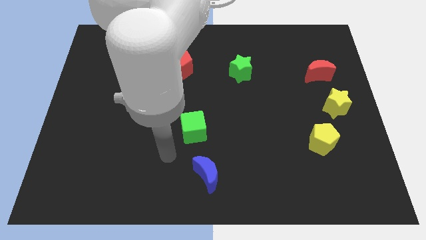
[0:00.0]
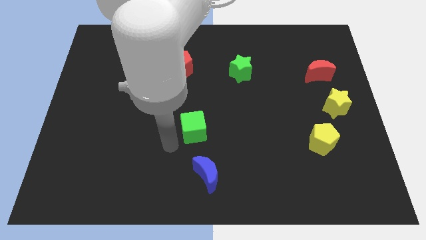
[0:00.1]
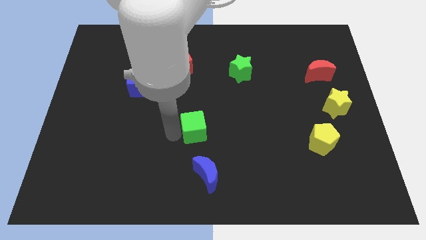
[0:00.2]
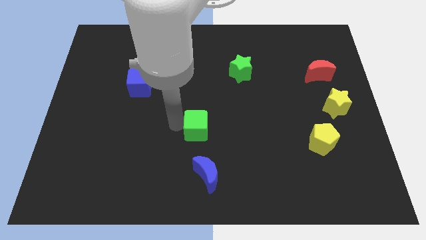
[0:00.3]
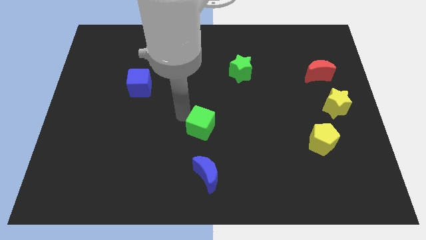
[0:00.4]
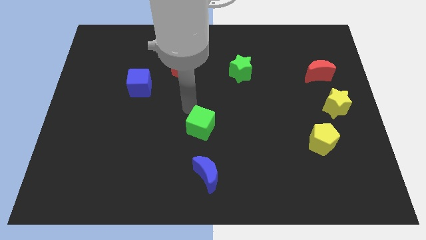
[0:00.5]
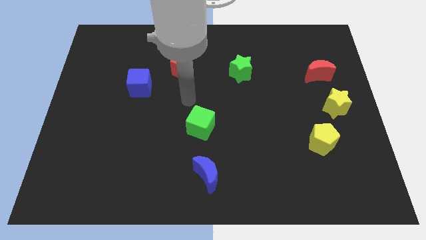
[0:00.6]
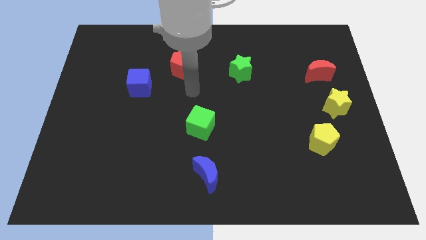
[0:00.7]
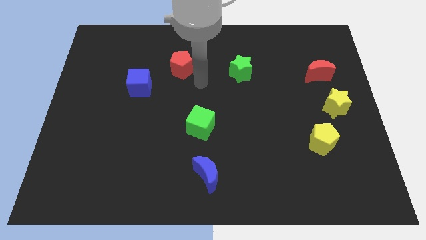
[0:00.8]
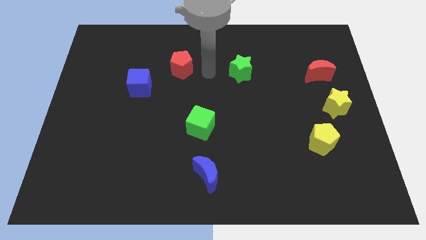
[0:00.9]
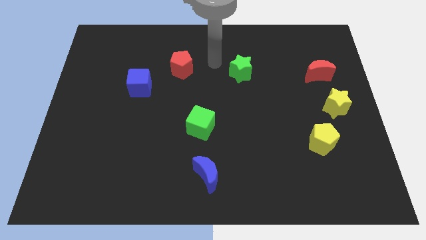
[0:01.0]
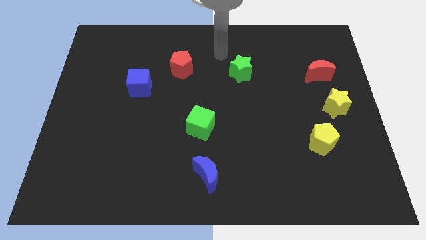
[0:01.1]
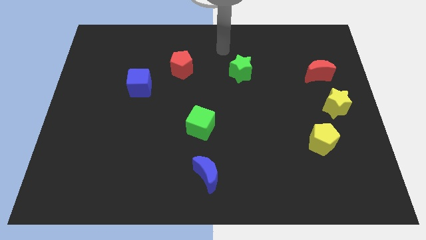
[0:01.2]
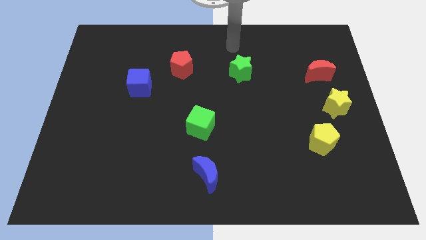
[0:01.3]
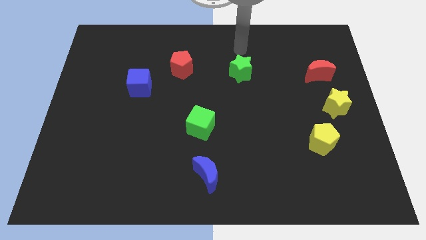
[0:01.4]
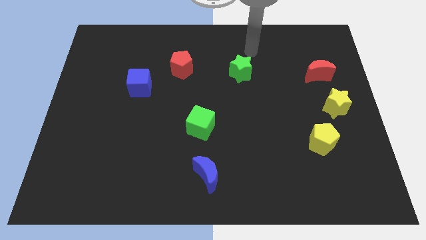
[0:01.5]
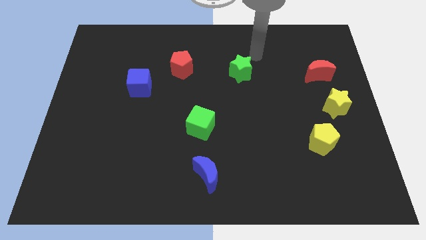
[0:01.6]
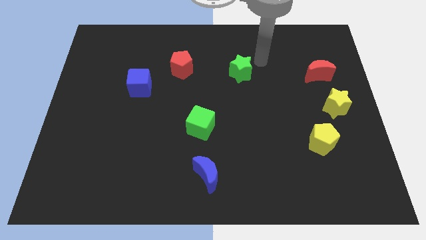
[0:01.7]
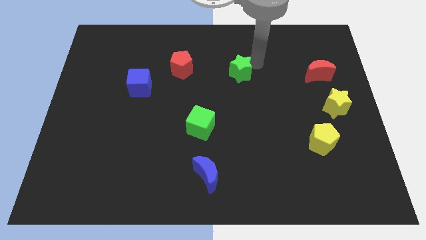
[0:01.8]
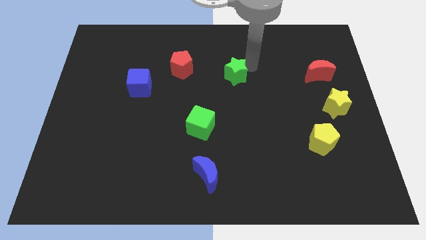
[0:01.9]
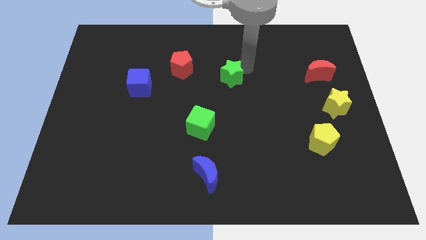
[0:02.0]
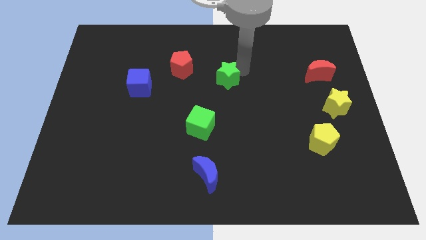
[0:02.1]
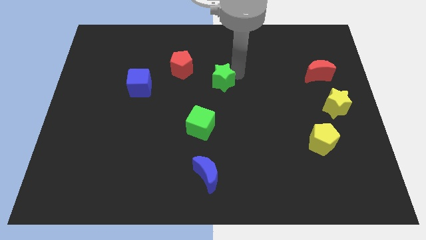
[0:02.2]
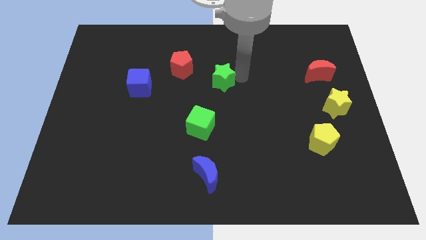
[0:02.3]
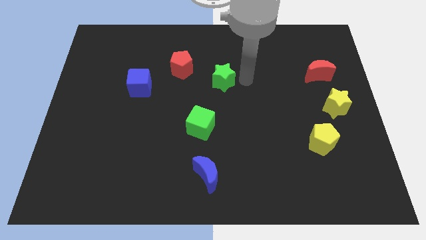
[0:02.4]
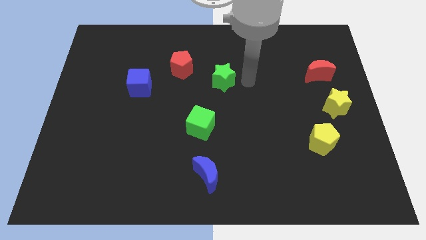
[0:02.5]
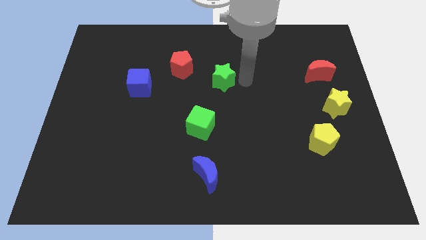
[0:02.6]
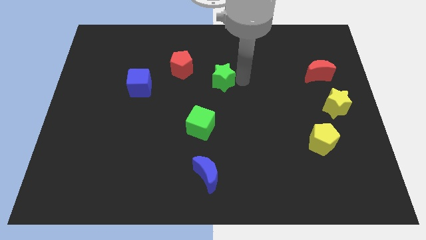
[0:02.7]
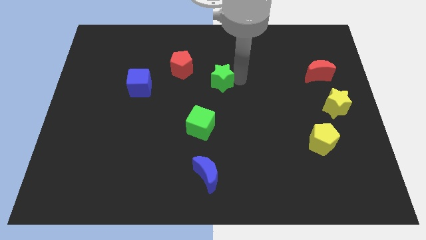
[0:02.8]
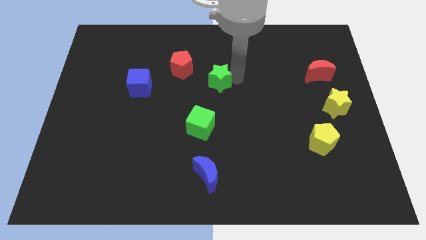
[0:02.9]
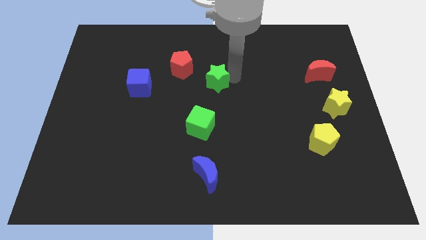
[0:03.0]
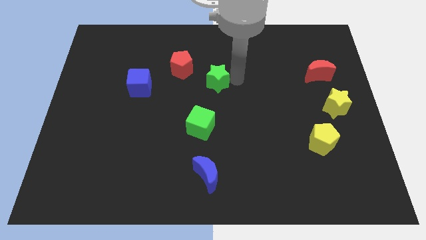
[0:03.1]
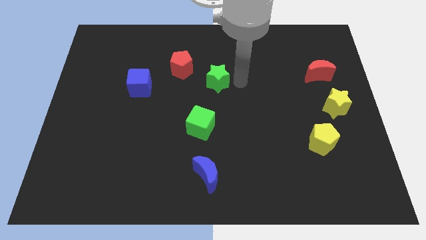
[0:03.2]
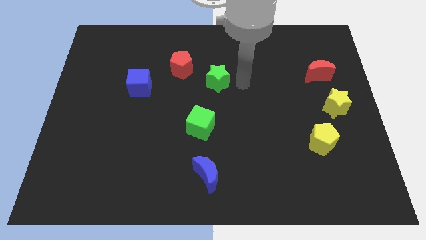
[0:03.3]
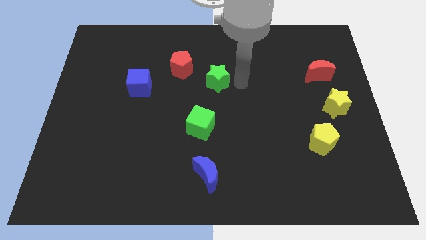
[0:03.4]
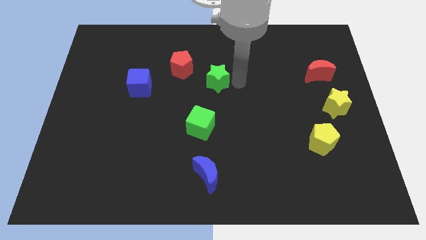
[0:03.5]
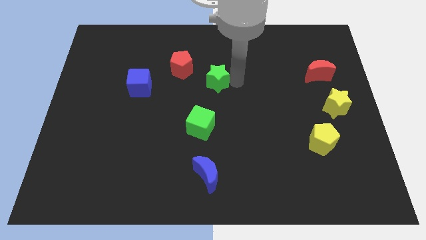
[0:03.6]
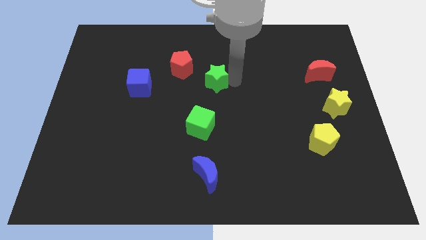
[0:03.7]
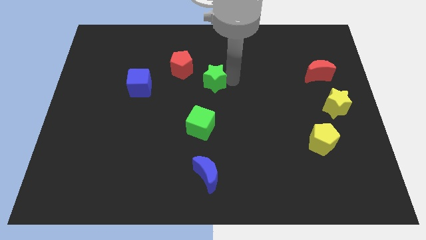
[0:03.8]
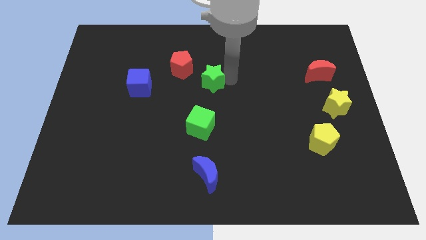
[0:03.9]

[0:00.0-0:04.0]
slightly push the green star to the left

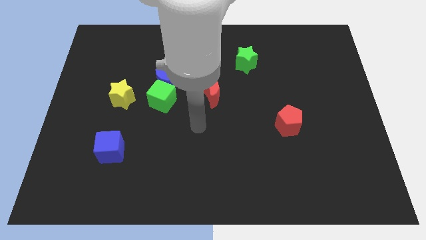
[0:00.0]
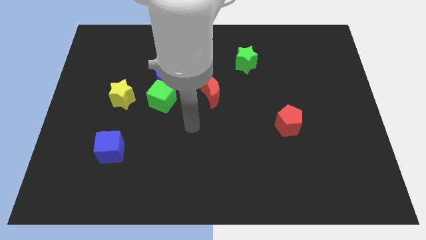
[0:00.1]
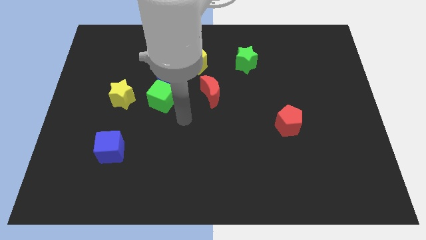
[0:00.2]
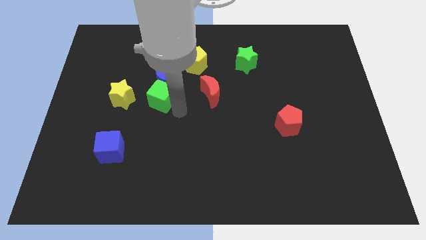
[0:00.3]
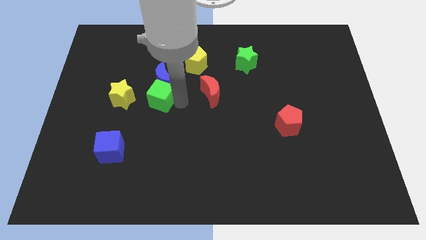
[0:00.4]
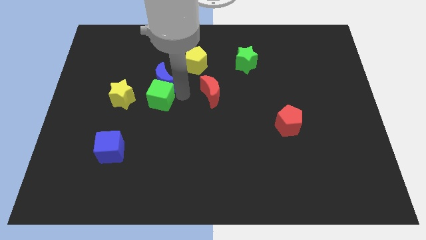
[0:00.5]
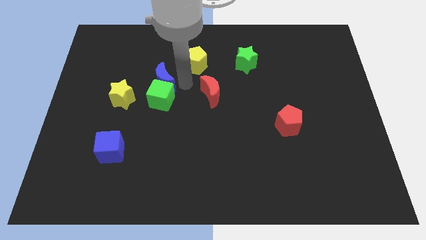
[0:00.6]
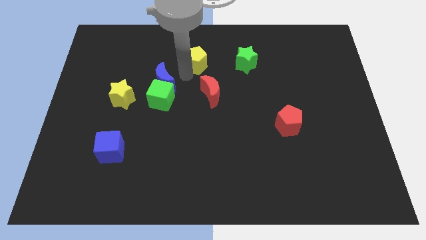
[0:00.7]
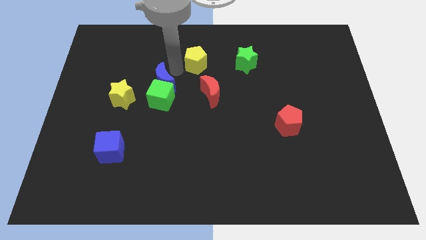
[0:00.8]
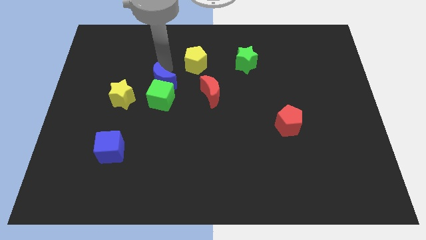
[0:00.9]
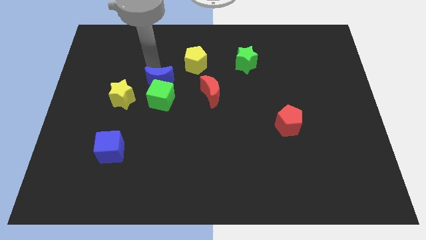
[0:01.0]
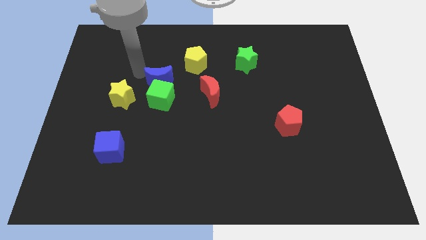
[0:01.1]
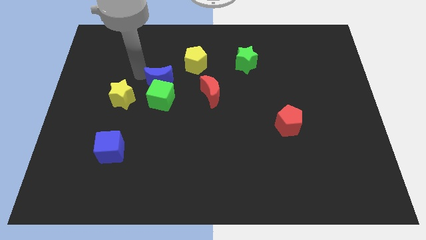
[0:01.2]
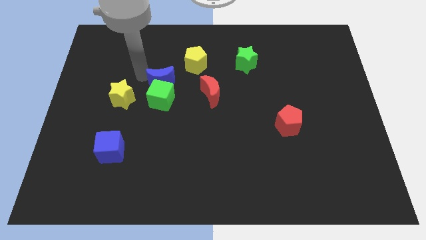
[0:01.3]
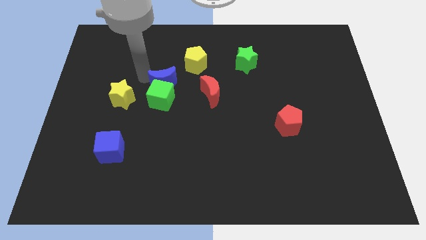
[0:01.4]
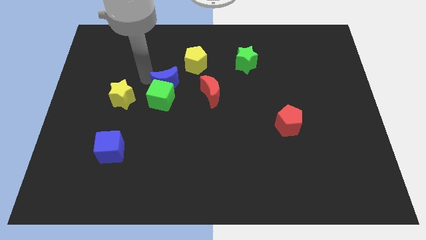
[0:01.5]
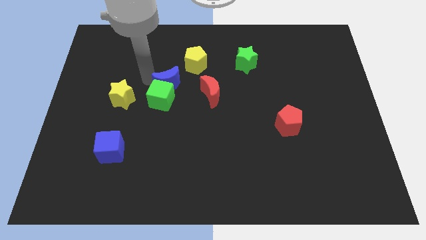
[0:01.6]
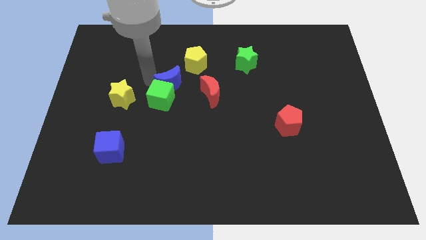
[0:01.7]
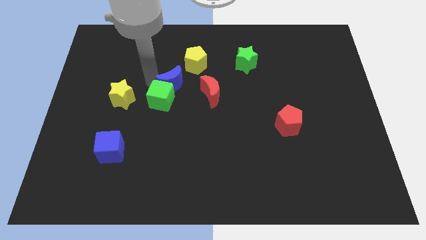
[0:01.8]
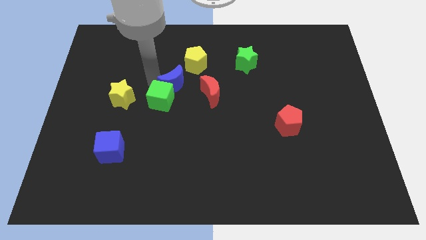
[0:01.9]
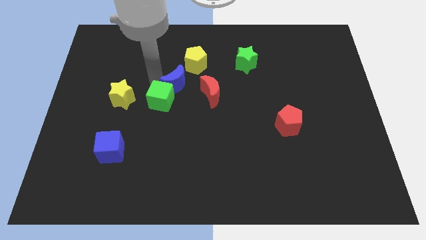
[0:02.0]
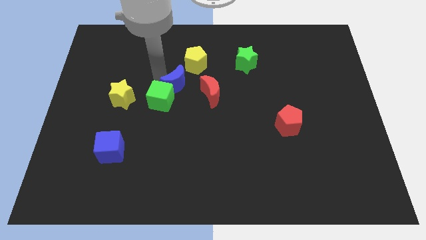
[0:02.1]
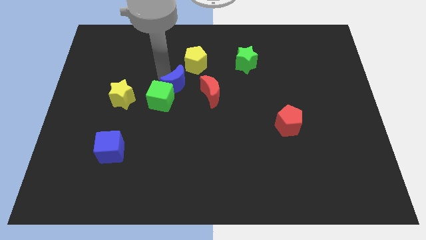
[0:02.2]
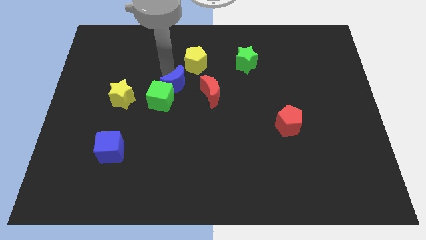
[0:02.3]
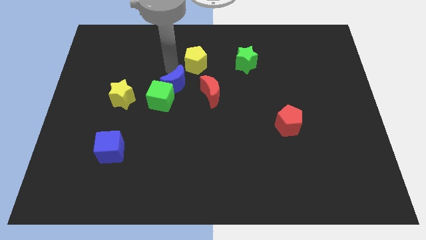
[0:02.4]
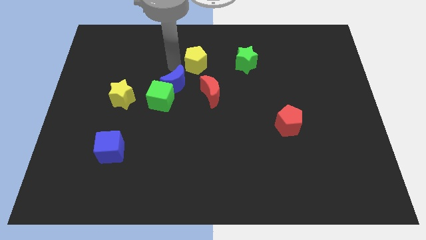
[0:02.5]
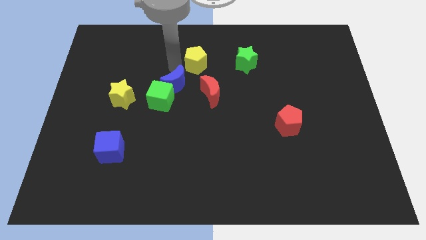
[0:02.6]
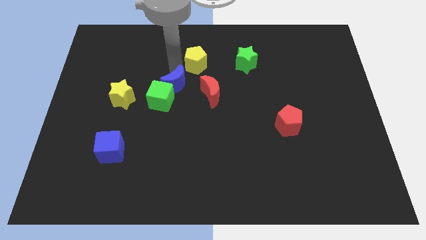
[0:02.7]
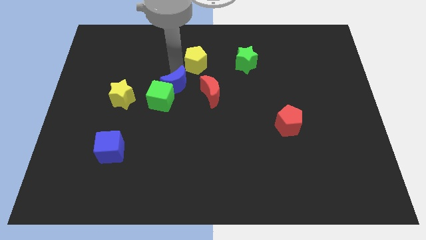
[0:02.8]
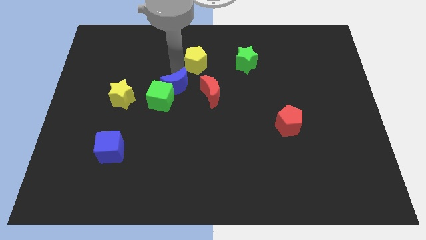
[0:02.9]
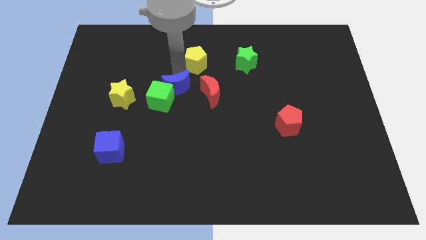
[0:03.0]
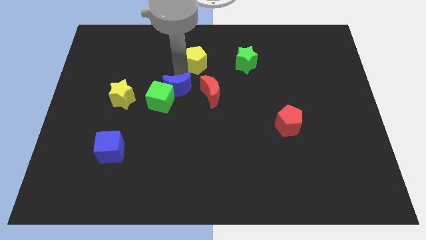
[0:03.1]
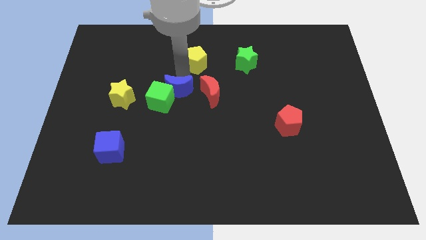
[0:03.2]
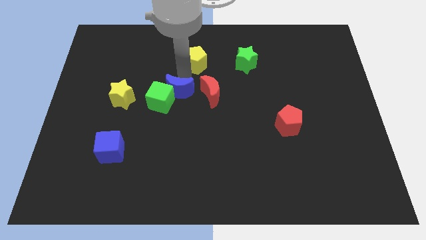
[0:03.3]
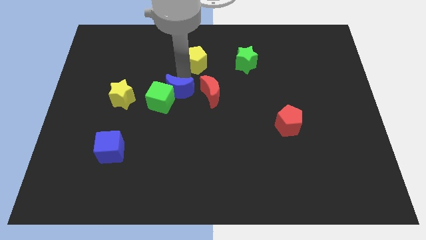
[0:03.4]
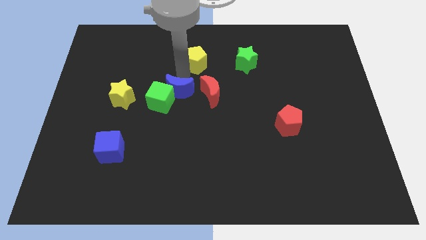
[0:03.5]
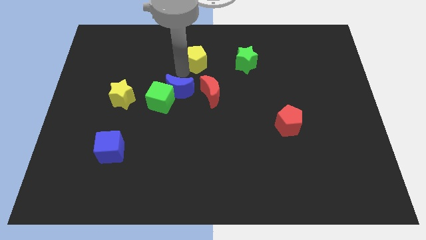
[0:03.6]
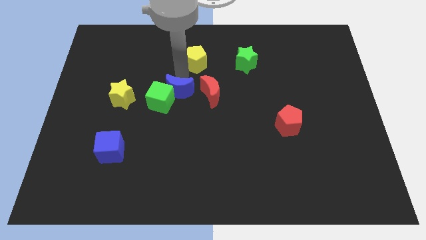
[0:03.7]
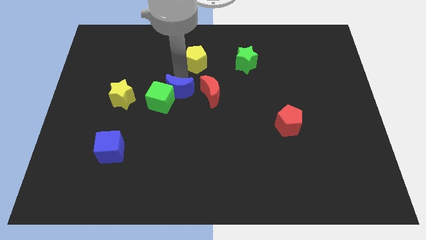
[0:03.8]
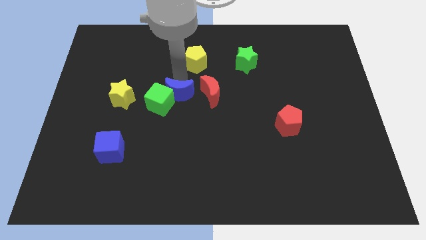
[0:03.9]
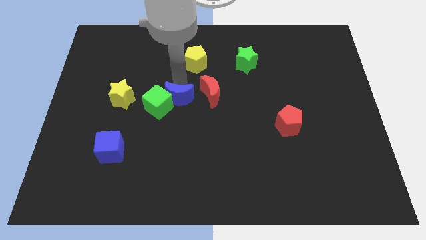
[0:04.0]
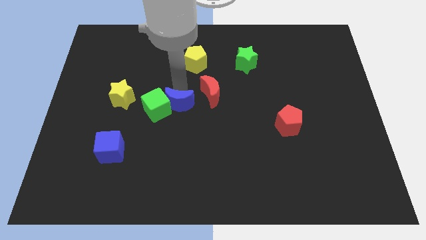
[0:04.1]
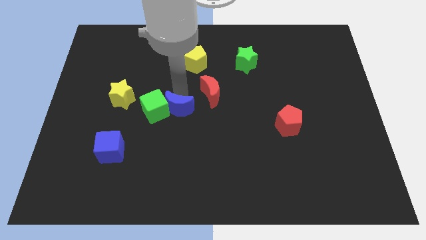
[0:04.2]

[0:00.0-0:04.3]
slightly push the blue moon down
